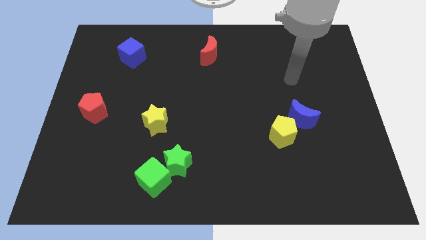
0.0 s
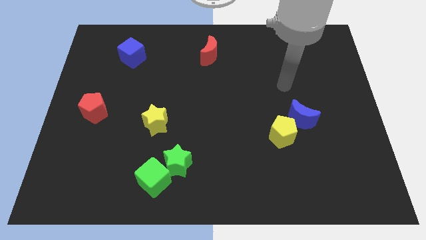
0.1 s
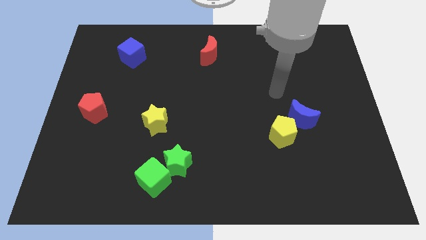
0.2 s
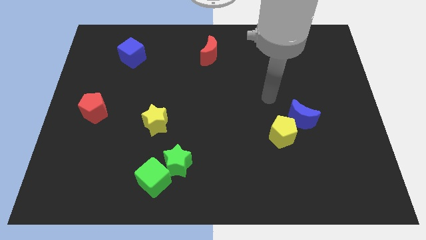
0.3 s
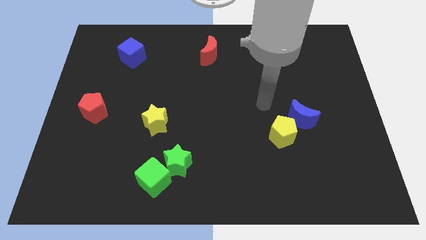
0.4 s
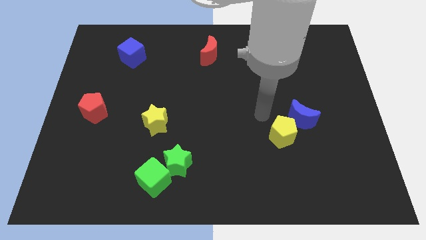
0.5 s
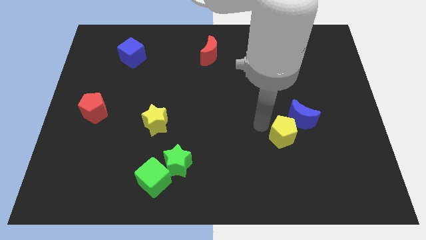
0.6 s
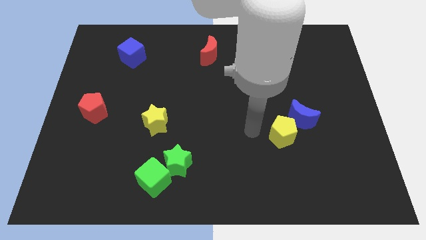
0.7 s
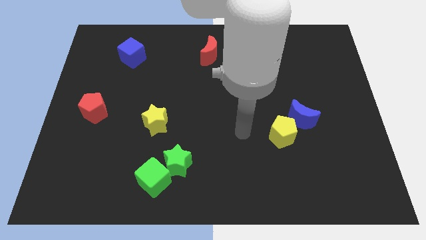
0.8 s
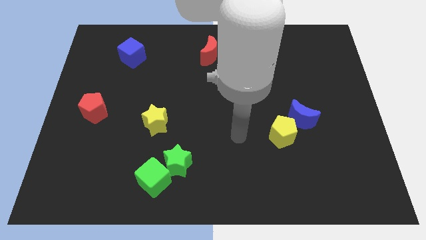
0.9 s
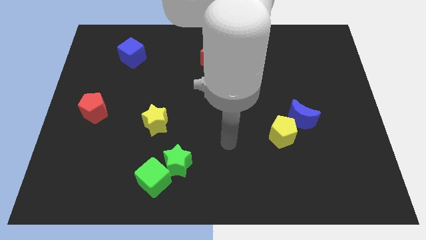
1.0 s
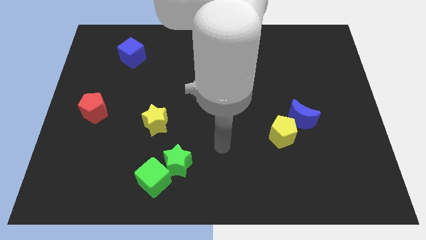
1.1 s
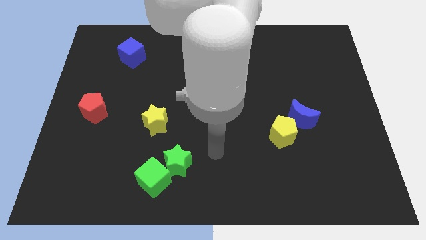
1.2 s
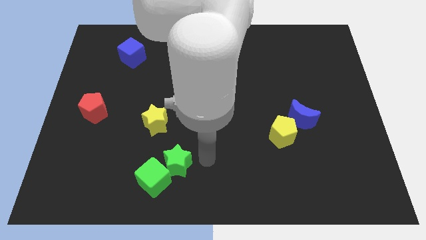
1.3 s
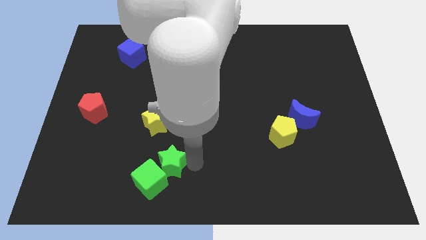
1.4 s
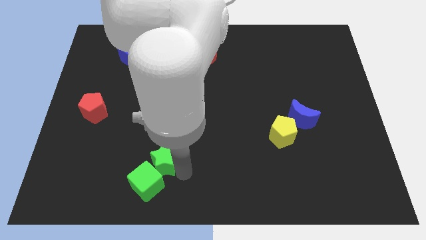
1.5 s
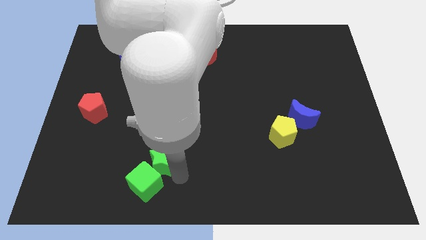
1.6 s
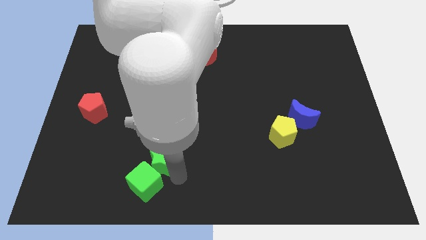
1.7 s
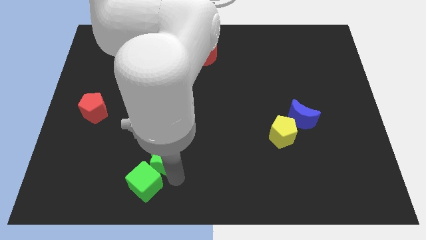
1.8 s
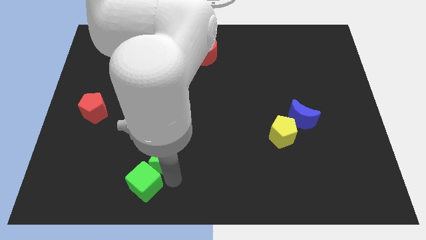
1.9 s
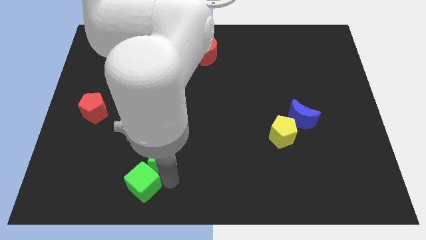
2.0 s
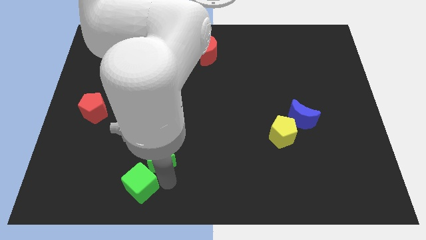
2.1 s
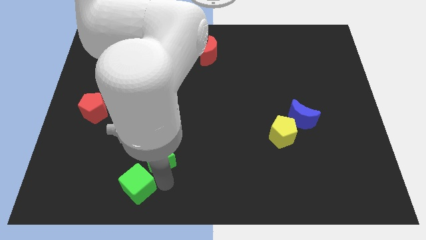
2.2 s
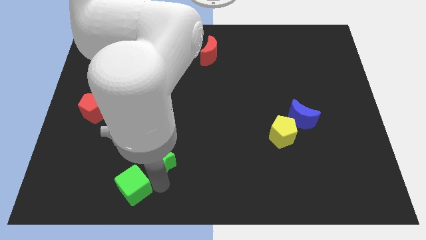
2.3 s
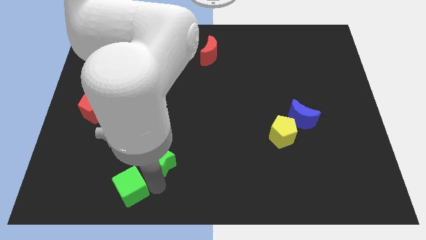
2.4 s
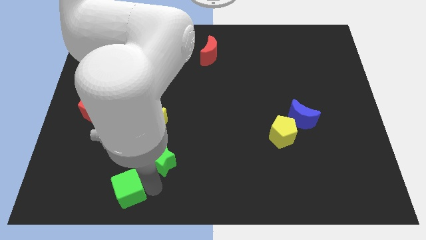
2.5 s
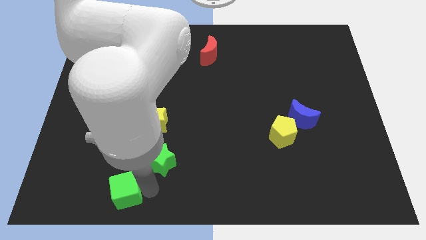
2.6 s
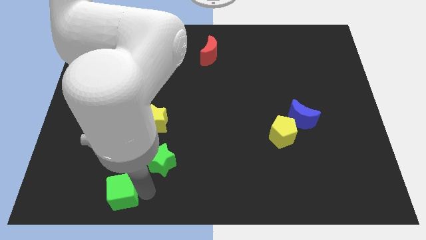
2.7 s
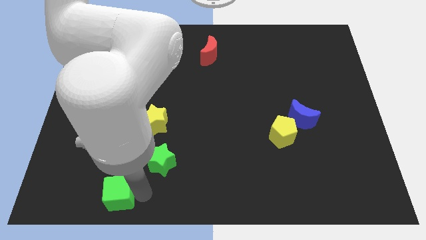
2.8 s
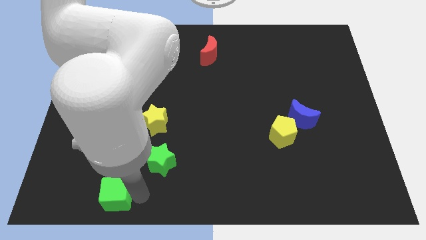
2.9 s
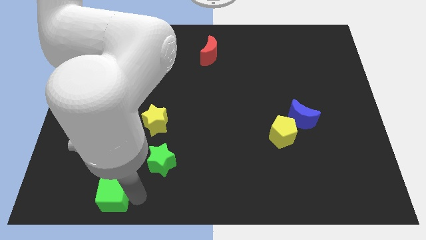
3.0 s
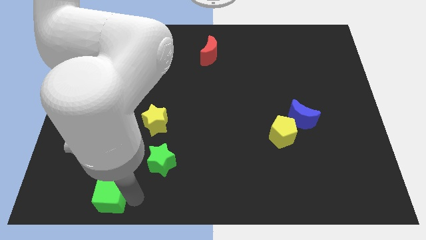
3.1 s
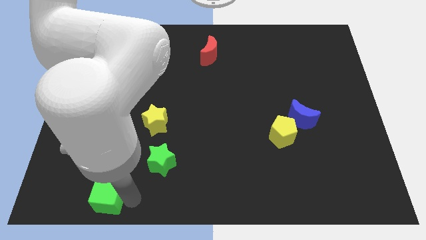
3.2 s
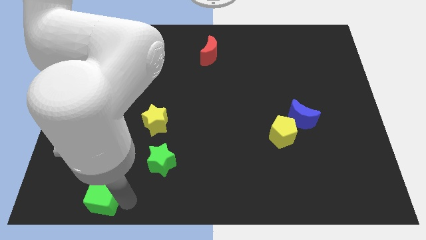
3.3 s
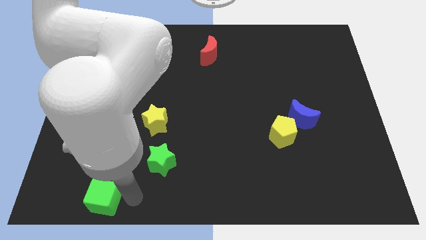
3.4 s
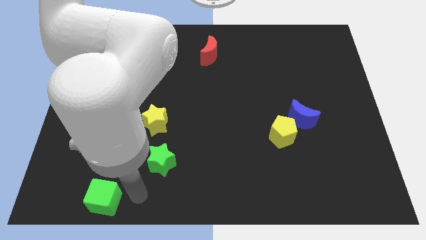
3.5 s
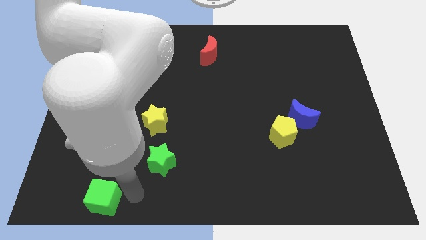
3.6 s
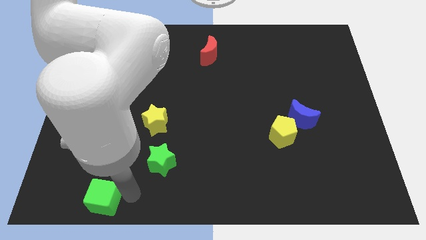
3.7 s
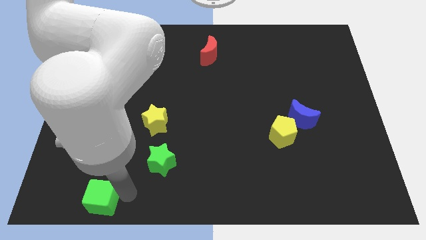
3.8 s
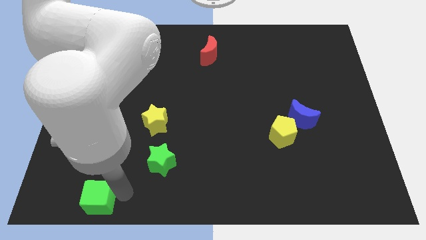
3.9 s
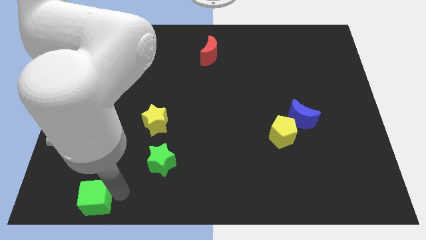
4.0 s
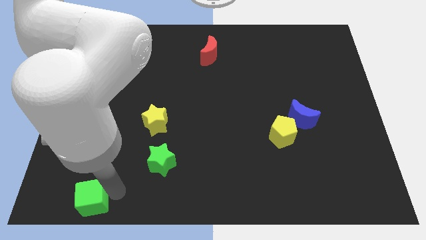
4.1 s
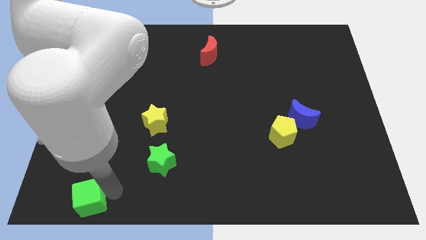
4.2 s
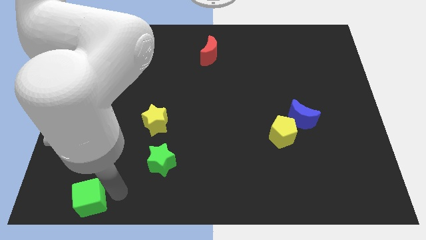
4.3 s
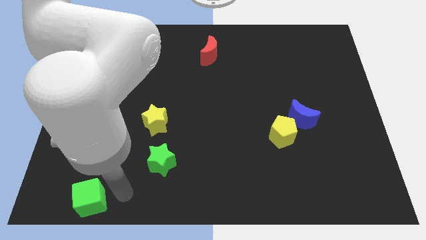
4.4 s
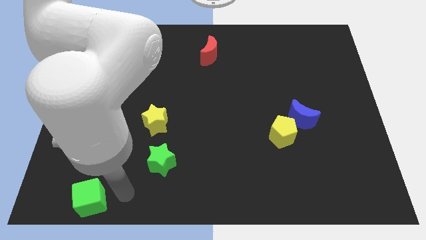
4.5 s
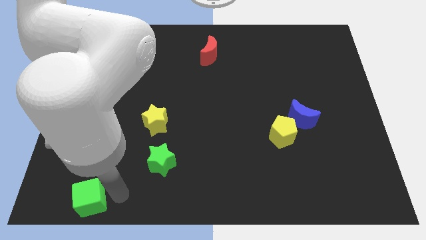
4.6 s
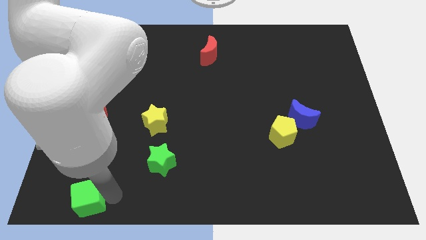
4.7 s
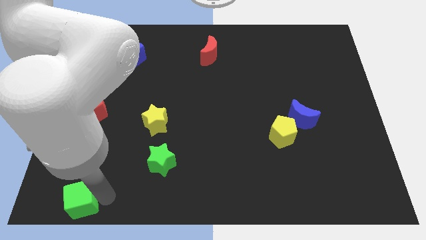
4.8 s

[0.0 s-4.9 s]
push the green cube to the bottom left

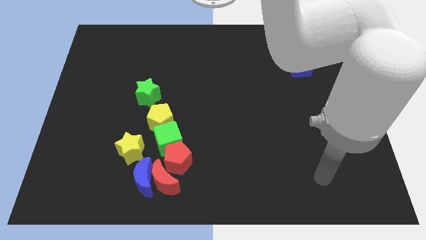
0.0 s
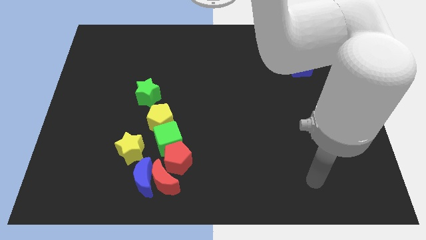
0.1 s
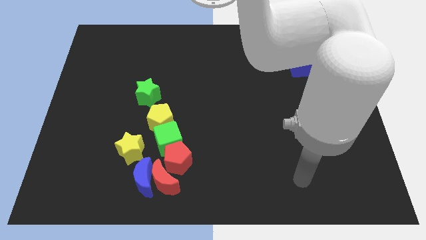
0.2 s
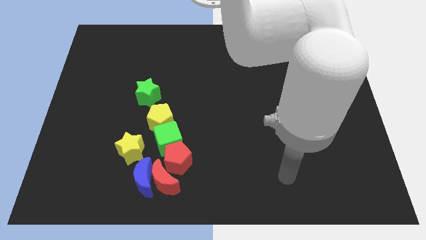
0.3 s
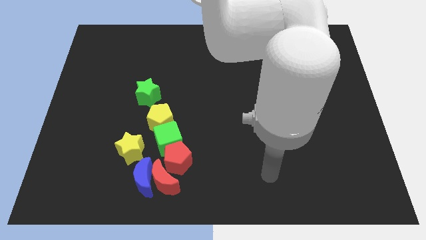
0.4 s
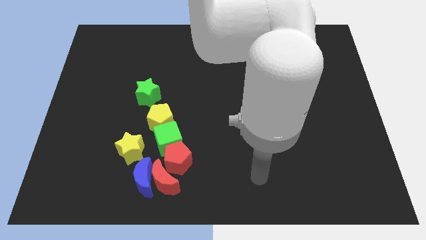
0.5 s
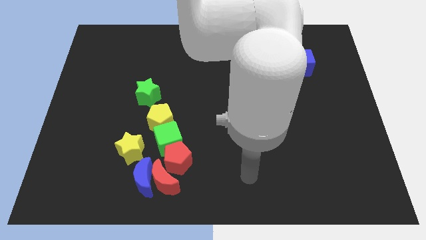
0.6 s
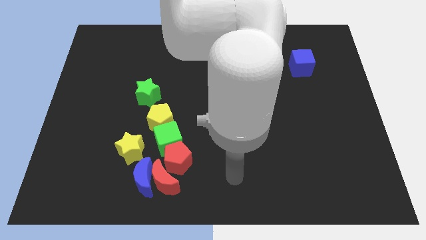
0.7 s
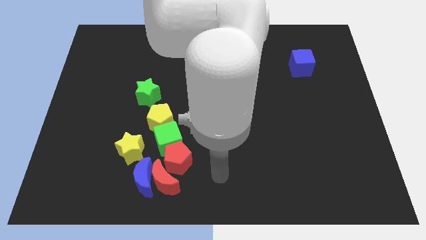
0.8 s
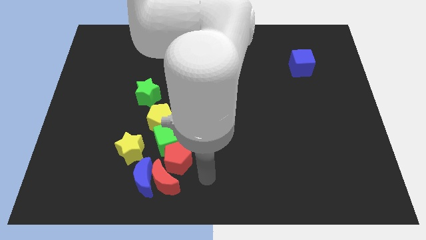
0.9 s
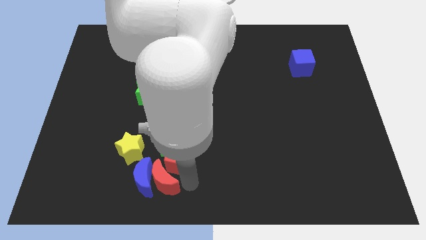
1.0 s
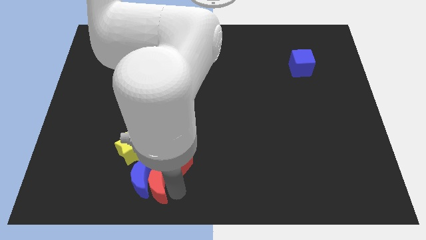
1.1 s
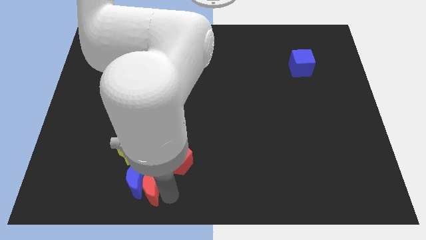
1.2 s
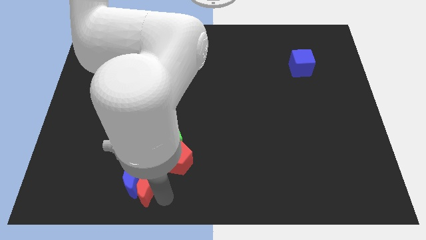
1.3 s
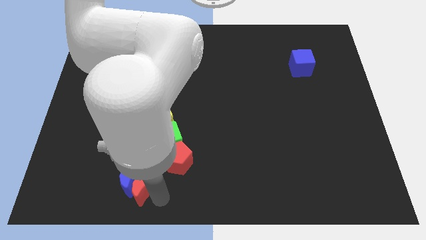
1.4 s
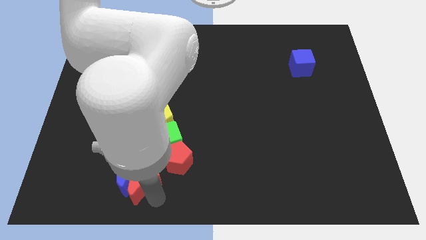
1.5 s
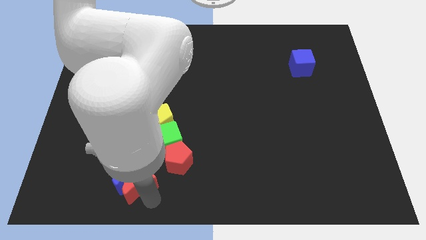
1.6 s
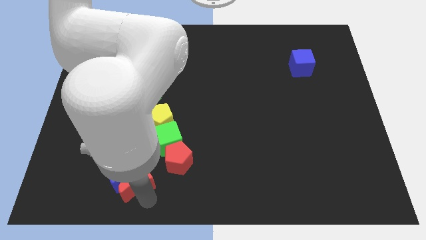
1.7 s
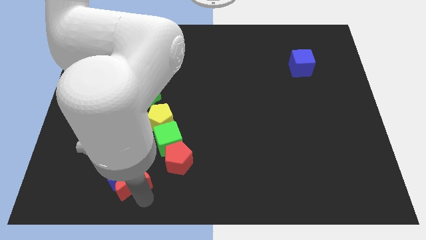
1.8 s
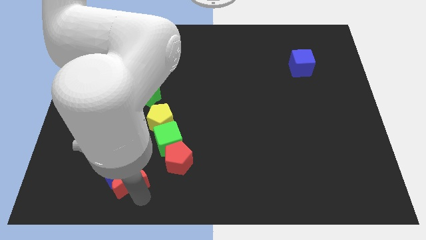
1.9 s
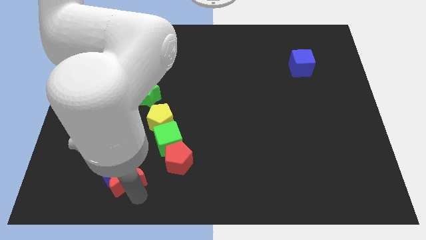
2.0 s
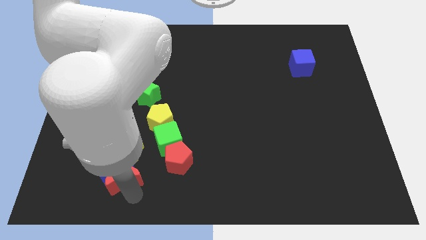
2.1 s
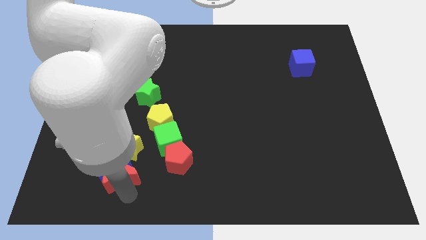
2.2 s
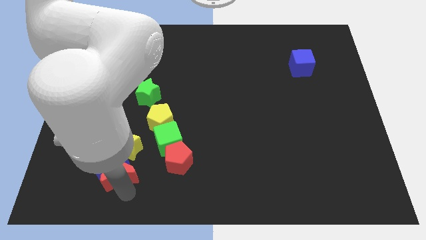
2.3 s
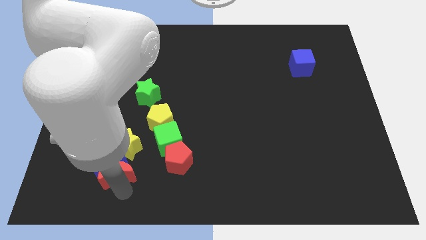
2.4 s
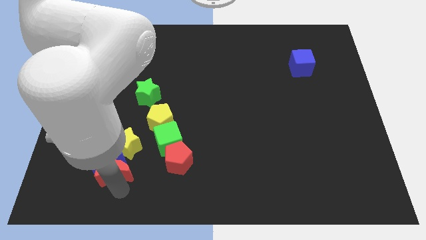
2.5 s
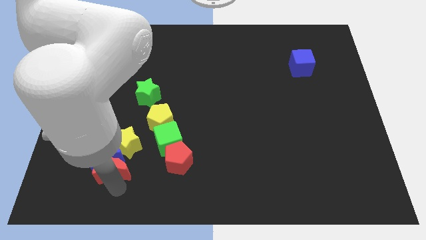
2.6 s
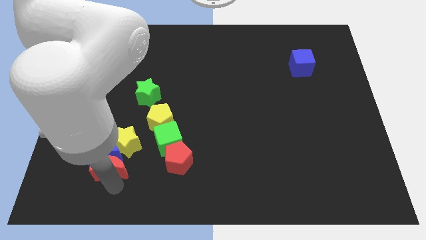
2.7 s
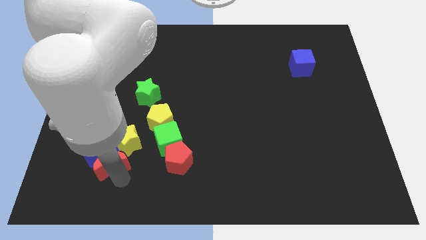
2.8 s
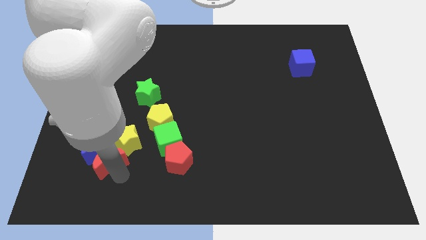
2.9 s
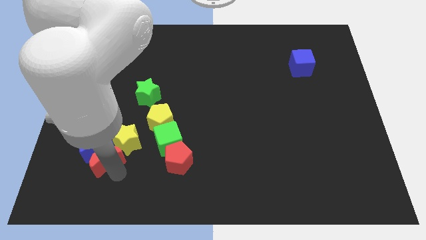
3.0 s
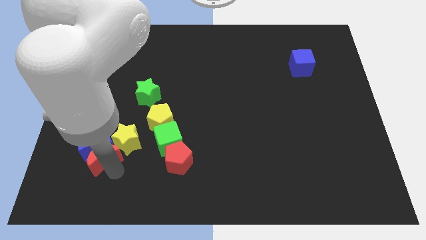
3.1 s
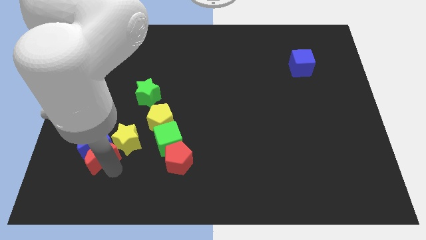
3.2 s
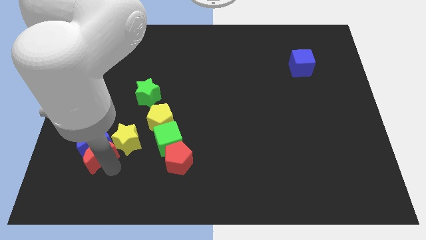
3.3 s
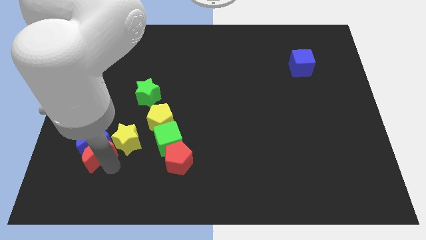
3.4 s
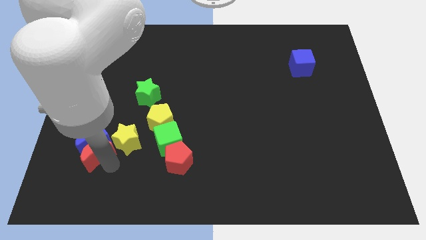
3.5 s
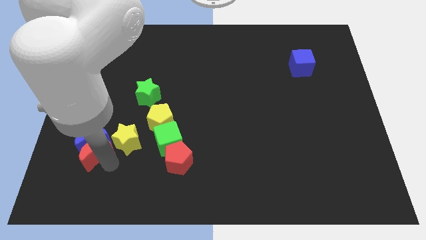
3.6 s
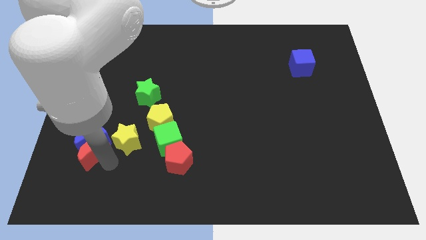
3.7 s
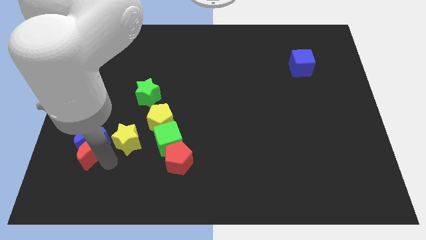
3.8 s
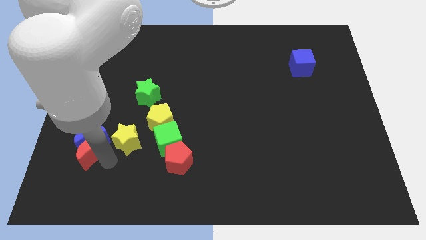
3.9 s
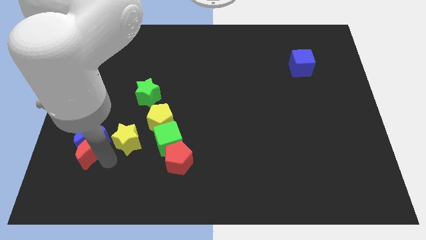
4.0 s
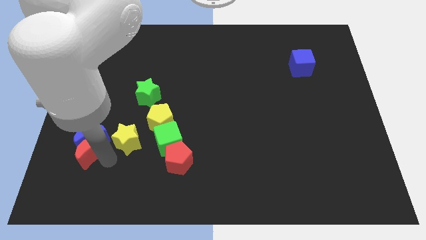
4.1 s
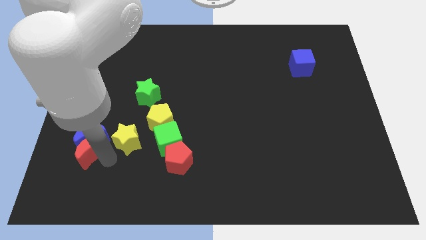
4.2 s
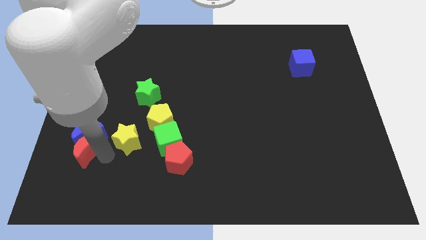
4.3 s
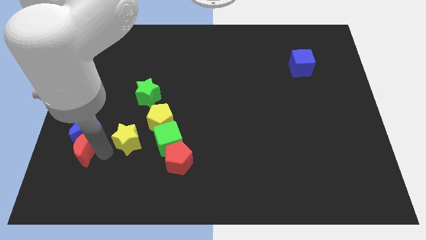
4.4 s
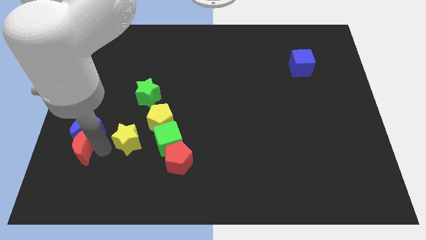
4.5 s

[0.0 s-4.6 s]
move the blue moon to the center left
